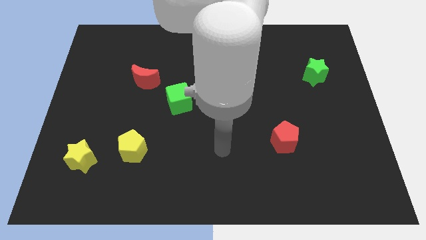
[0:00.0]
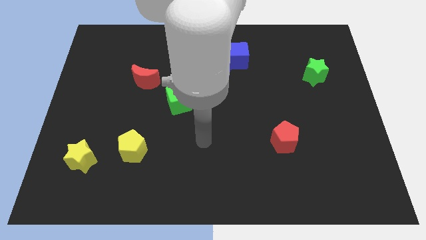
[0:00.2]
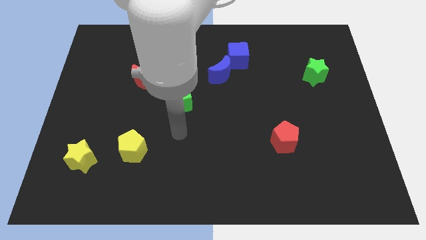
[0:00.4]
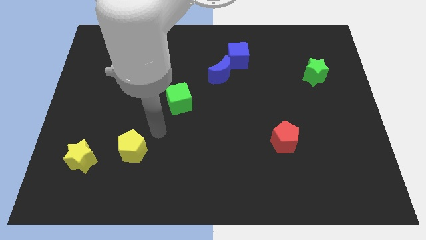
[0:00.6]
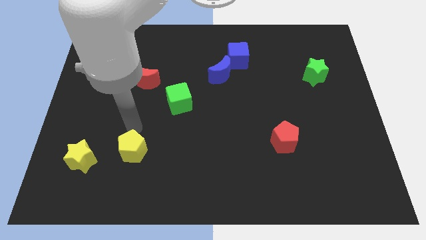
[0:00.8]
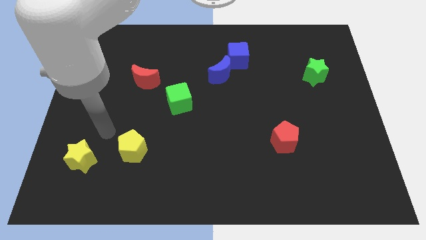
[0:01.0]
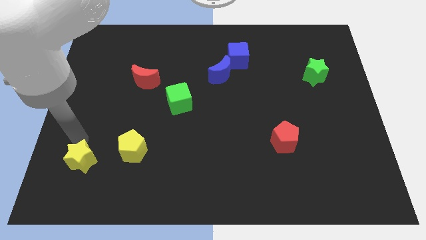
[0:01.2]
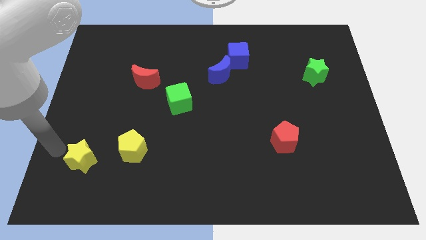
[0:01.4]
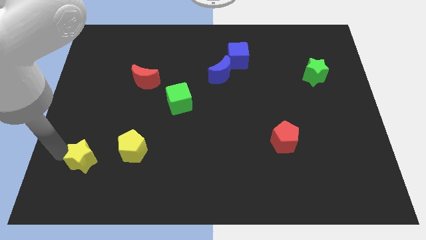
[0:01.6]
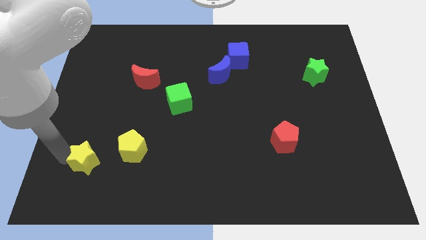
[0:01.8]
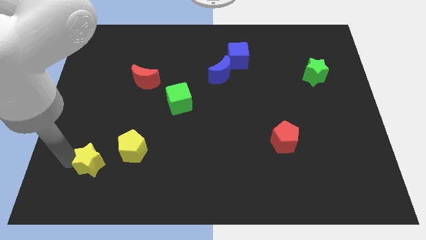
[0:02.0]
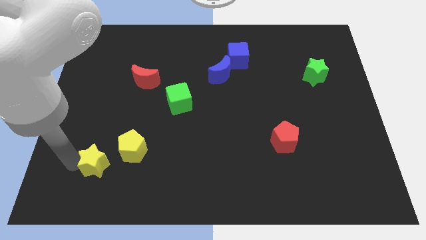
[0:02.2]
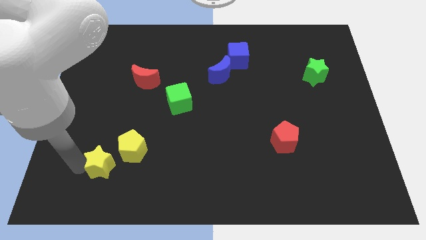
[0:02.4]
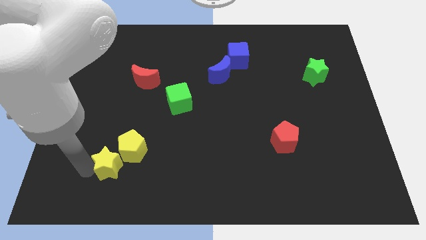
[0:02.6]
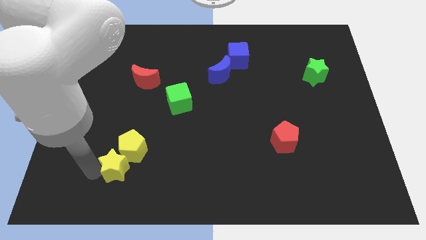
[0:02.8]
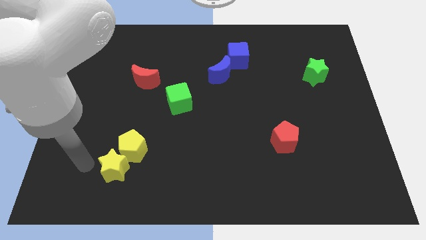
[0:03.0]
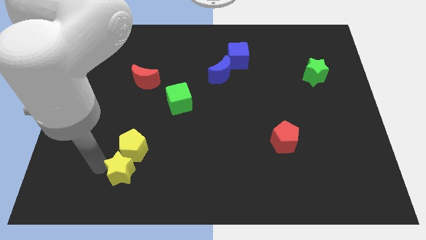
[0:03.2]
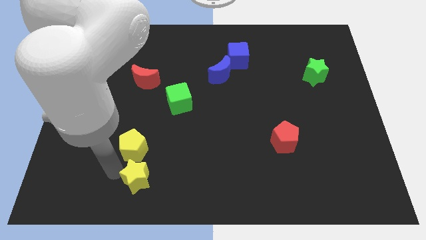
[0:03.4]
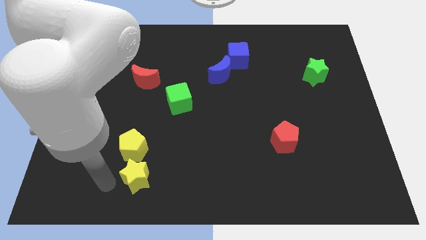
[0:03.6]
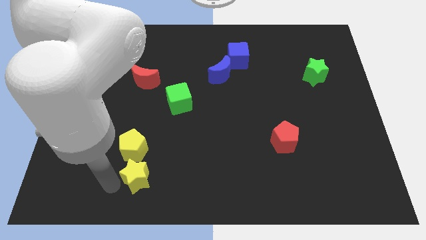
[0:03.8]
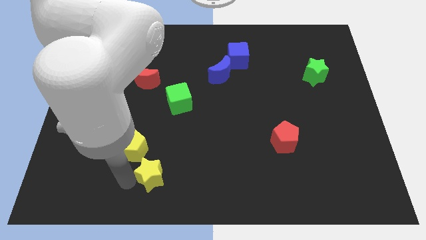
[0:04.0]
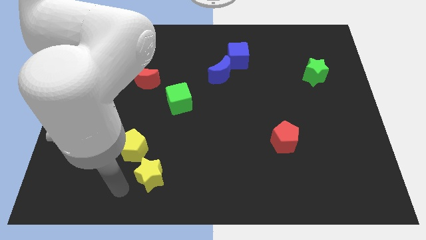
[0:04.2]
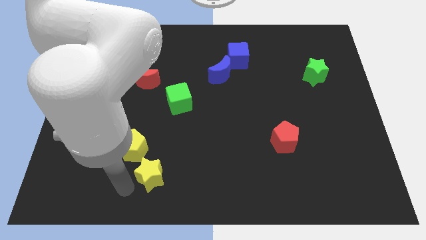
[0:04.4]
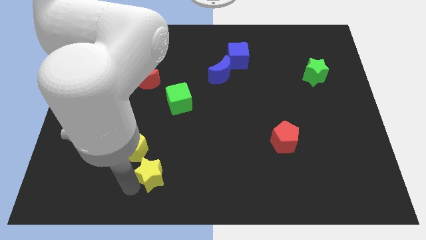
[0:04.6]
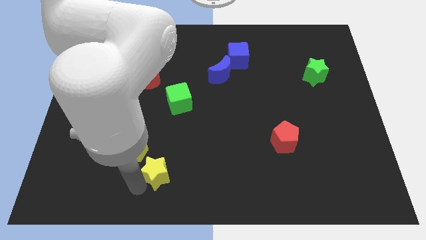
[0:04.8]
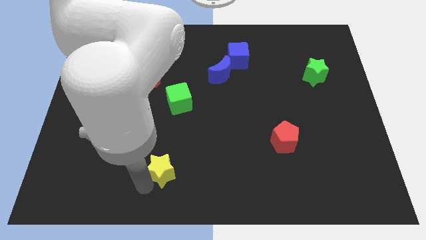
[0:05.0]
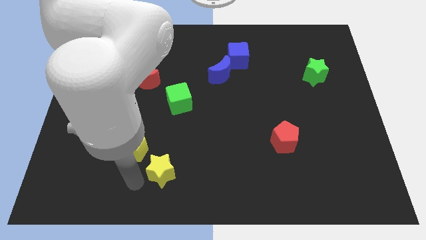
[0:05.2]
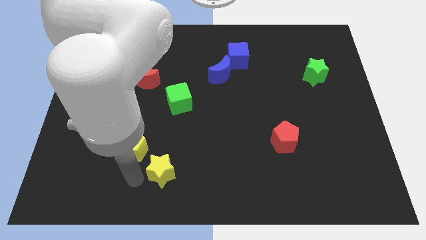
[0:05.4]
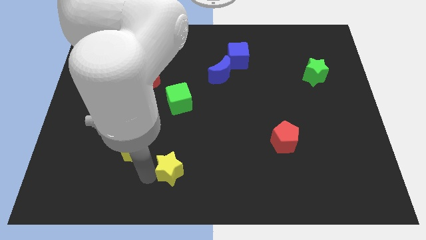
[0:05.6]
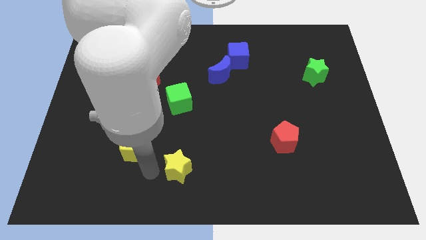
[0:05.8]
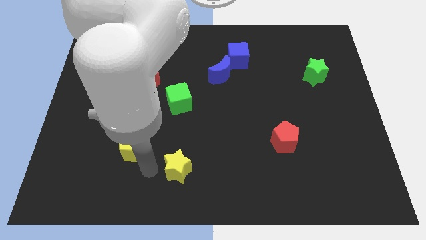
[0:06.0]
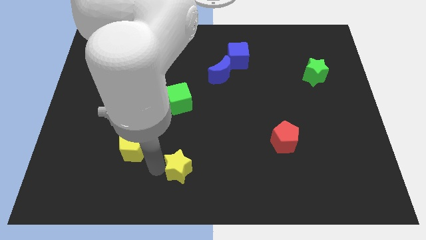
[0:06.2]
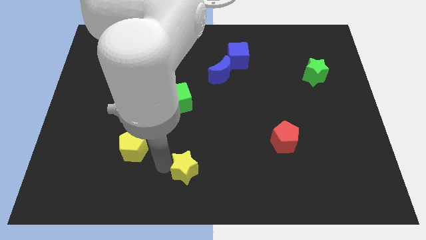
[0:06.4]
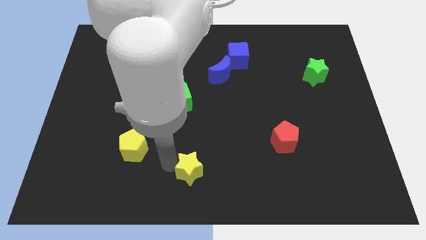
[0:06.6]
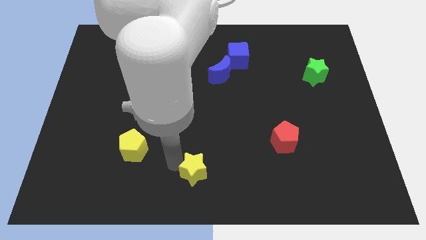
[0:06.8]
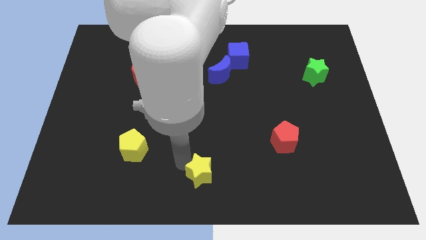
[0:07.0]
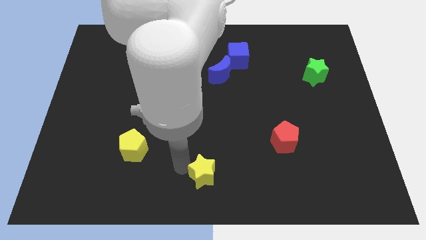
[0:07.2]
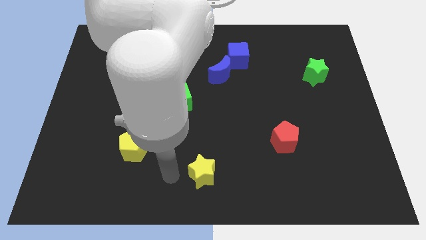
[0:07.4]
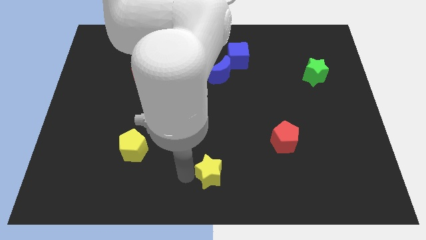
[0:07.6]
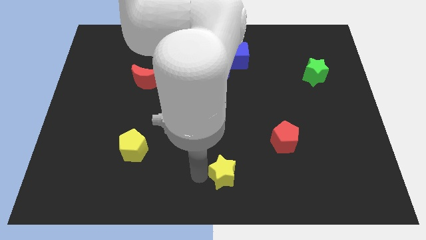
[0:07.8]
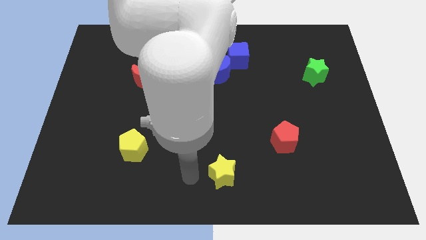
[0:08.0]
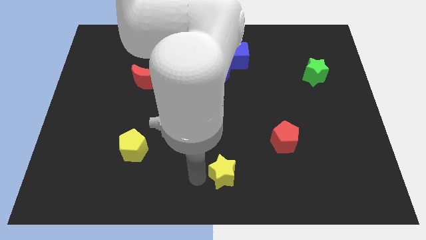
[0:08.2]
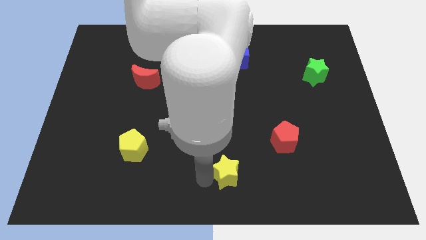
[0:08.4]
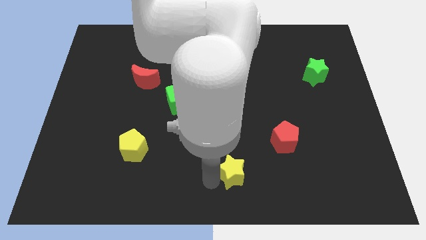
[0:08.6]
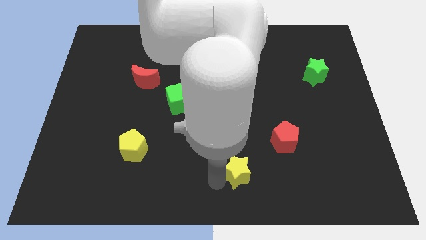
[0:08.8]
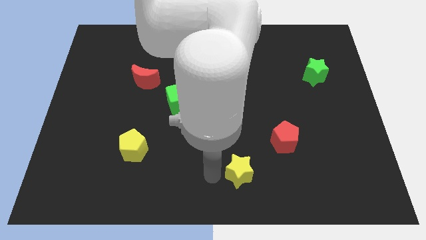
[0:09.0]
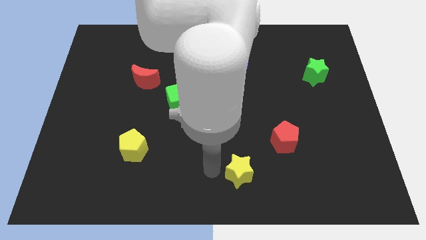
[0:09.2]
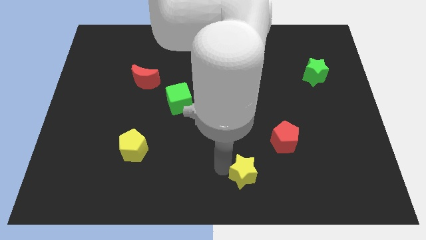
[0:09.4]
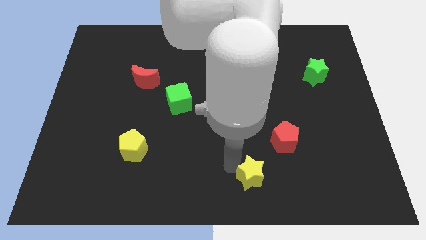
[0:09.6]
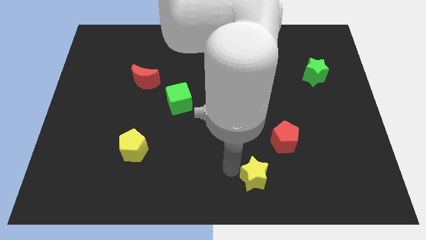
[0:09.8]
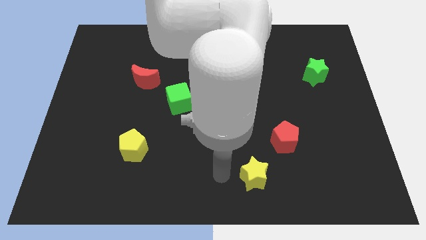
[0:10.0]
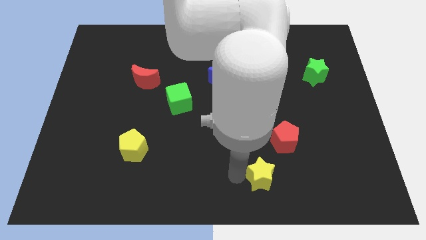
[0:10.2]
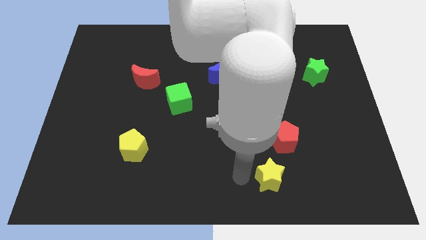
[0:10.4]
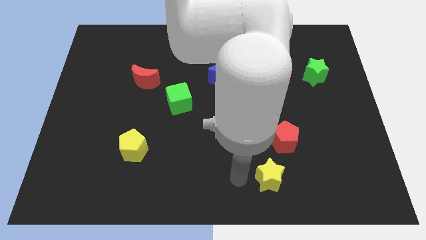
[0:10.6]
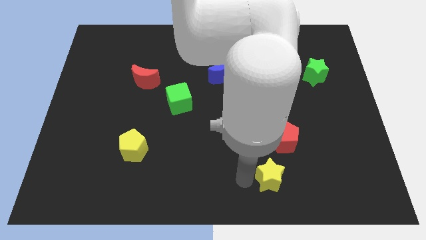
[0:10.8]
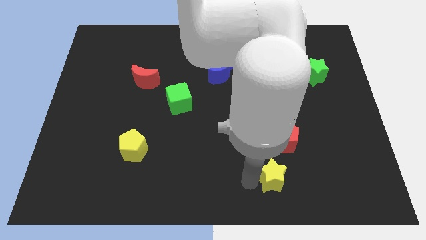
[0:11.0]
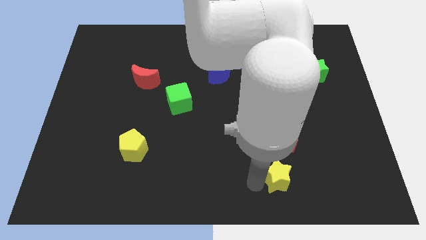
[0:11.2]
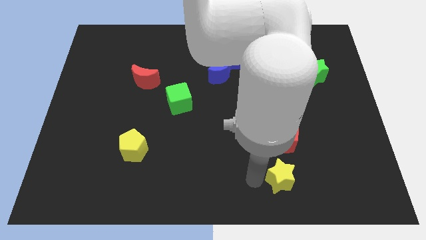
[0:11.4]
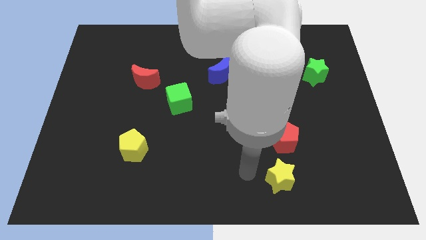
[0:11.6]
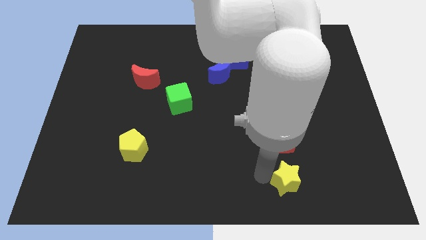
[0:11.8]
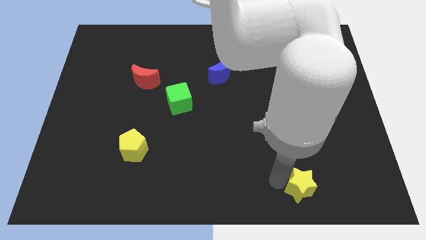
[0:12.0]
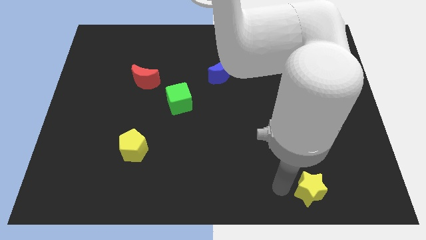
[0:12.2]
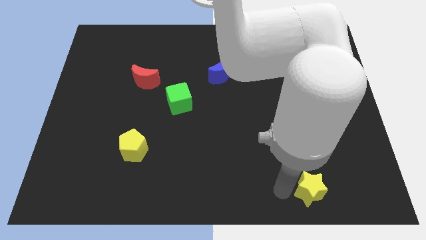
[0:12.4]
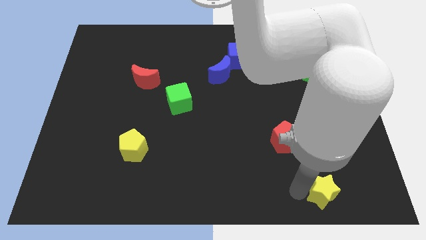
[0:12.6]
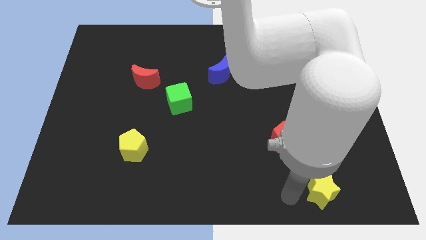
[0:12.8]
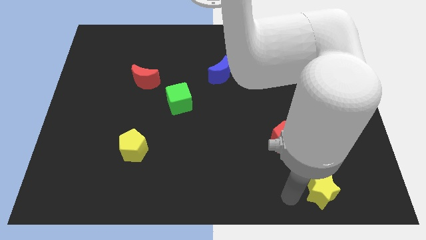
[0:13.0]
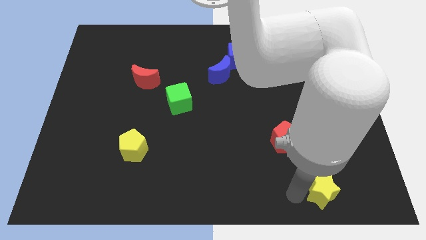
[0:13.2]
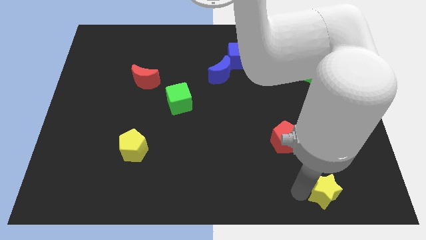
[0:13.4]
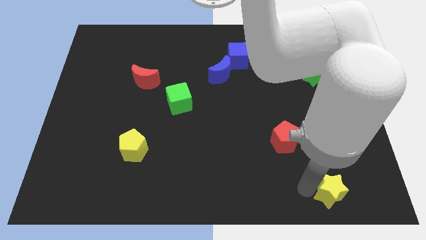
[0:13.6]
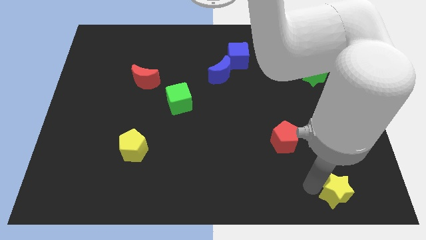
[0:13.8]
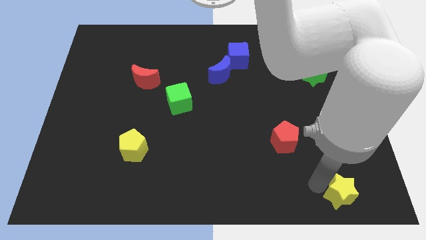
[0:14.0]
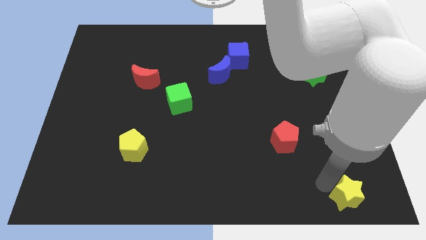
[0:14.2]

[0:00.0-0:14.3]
push the yellow star to the lower right corner

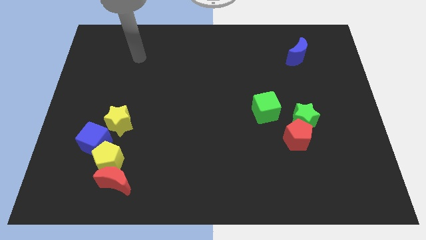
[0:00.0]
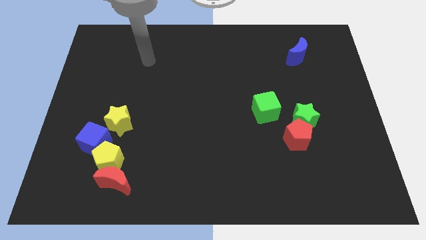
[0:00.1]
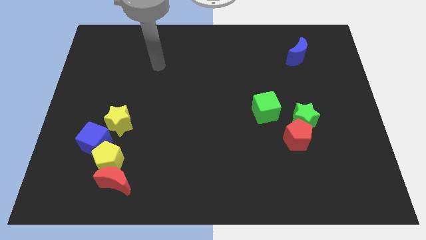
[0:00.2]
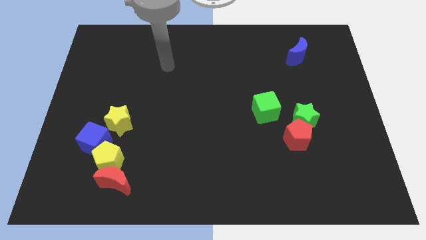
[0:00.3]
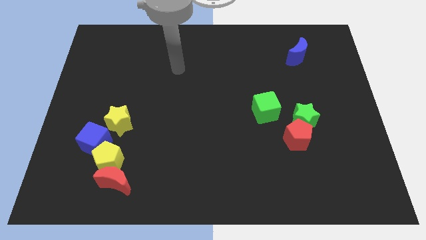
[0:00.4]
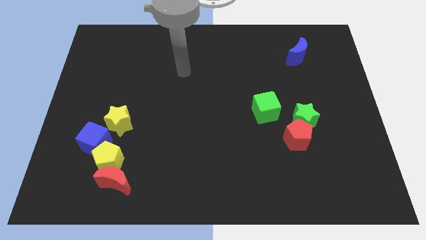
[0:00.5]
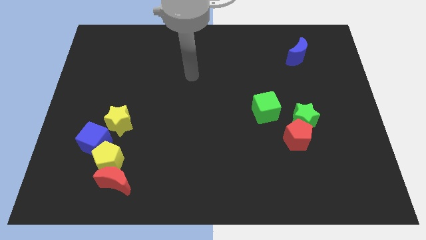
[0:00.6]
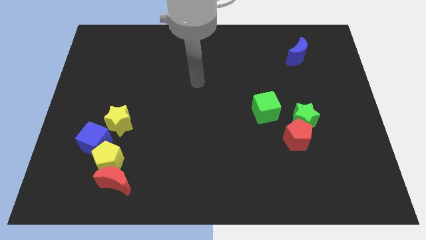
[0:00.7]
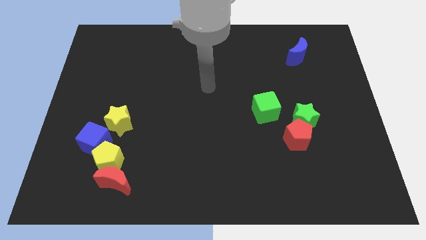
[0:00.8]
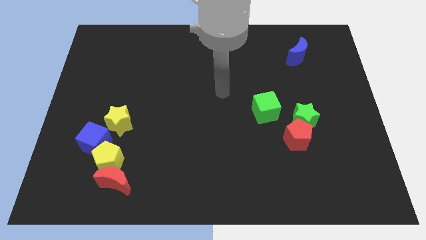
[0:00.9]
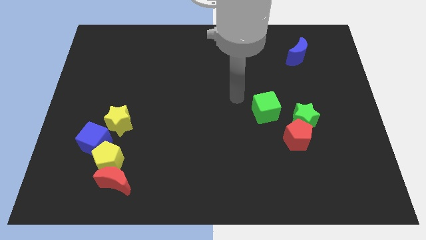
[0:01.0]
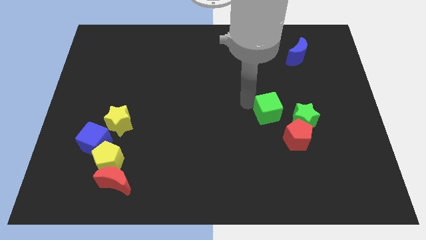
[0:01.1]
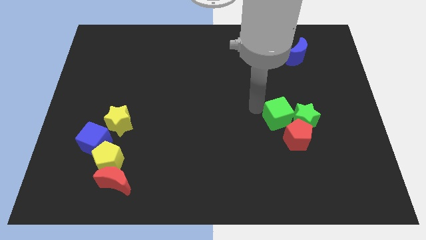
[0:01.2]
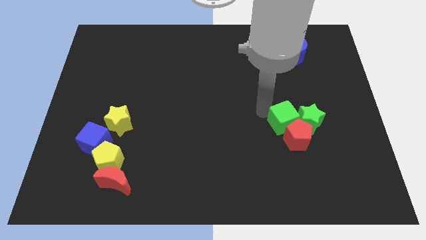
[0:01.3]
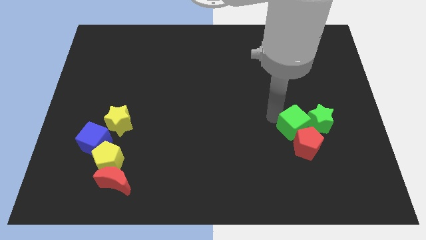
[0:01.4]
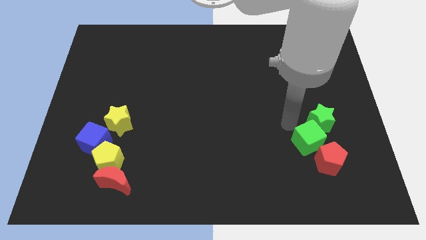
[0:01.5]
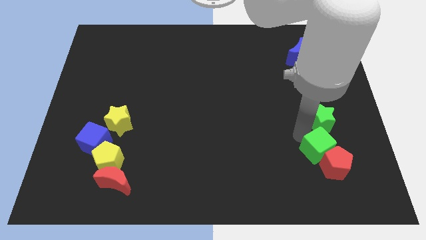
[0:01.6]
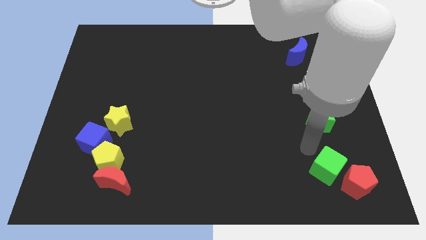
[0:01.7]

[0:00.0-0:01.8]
slide the red pentagon to the bottom right corner
